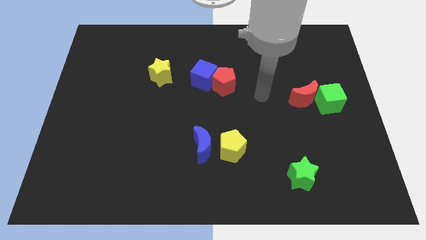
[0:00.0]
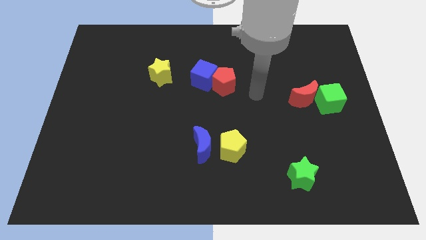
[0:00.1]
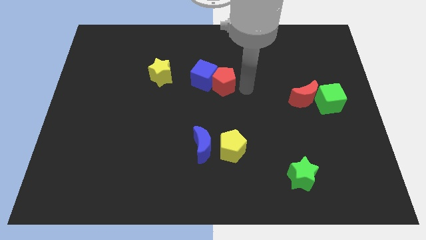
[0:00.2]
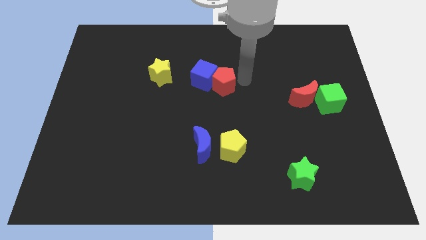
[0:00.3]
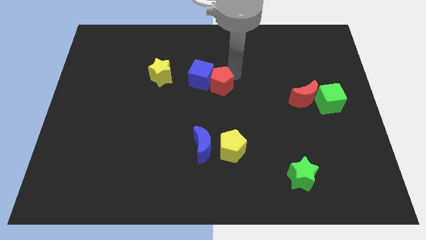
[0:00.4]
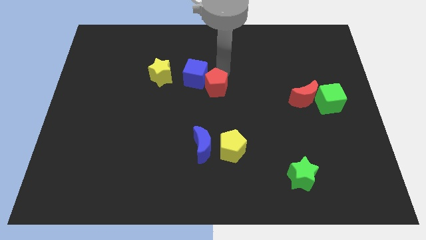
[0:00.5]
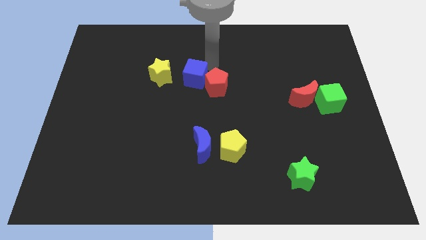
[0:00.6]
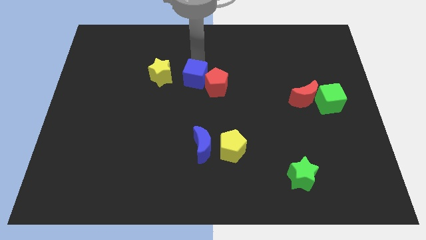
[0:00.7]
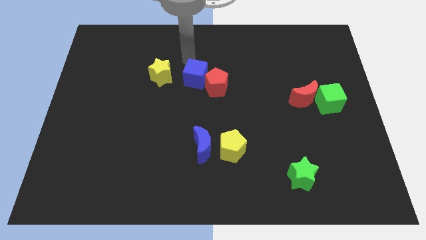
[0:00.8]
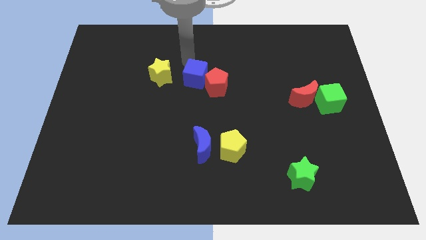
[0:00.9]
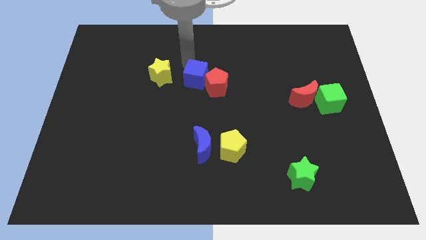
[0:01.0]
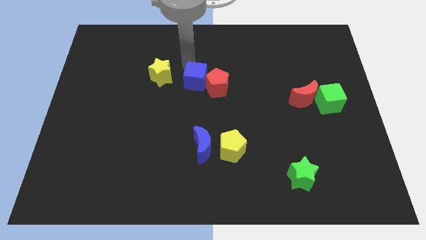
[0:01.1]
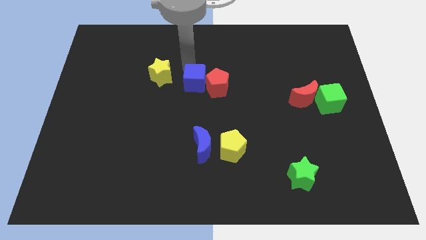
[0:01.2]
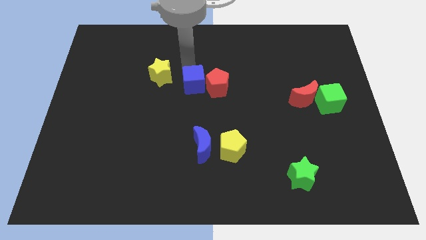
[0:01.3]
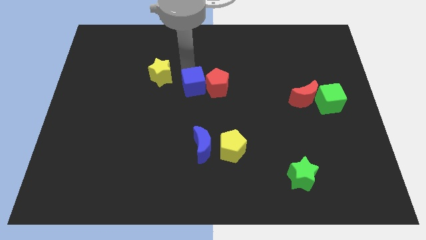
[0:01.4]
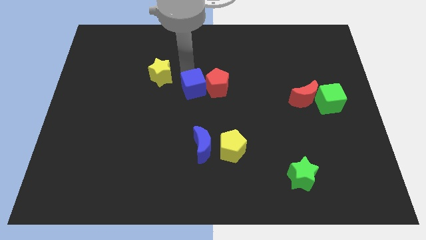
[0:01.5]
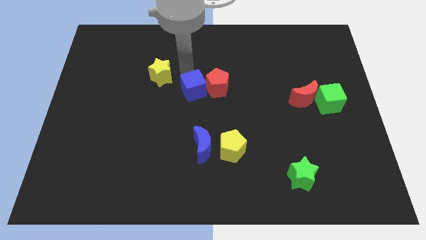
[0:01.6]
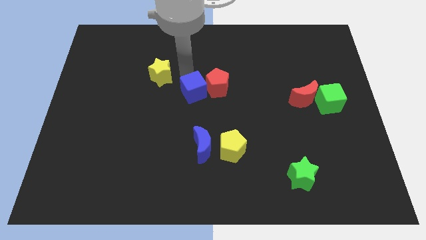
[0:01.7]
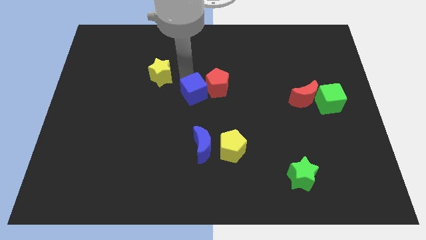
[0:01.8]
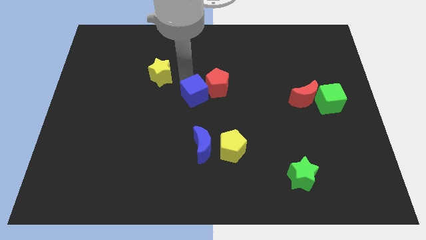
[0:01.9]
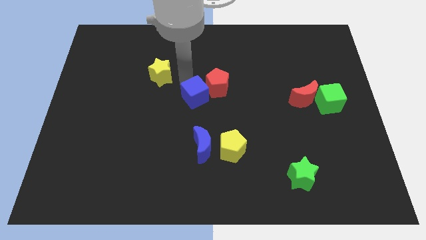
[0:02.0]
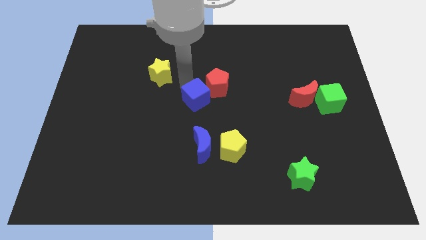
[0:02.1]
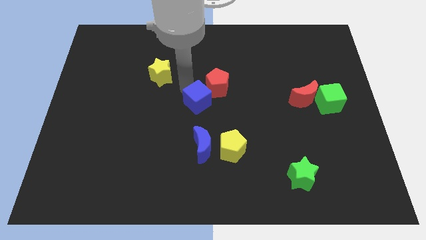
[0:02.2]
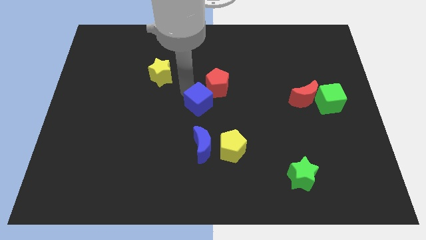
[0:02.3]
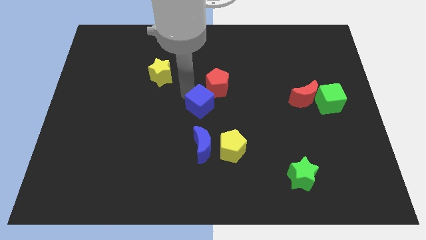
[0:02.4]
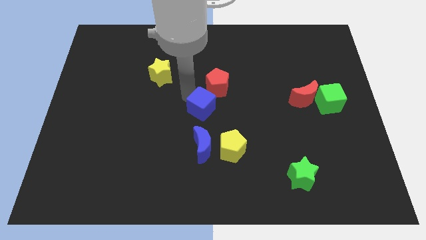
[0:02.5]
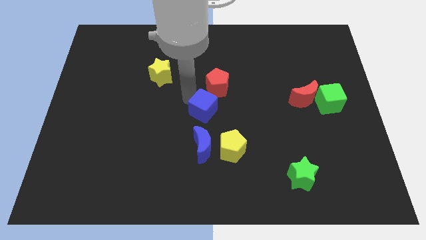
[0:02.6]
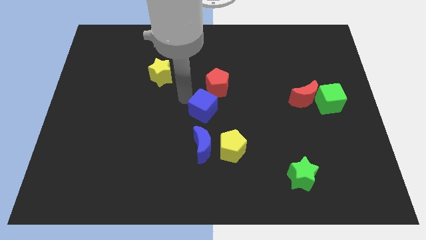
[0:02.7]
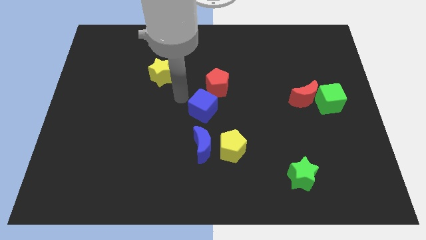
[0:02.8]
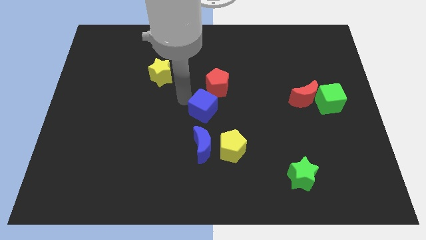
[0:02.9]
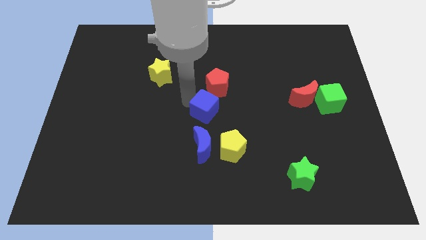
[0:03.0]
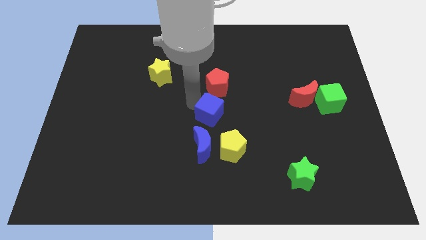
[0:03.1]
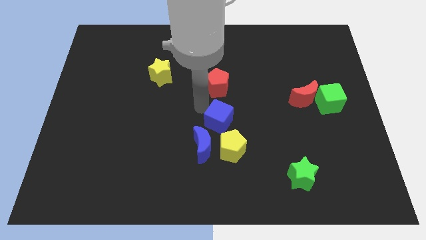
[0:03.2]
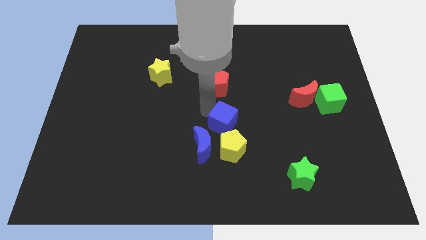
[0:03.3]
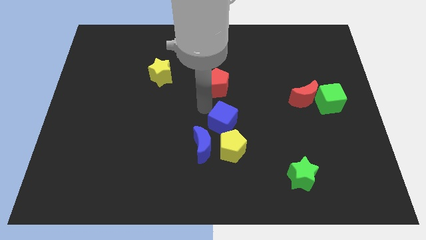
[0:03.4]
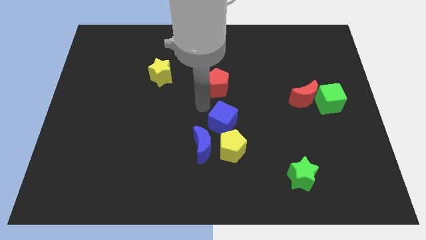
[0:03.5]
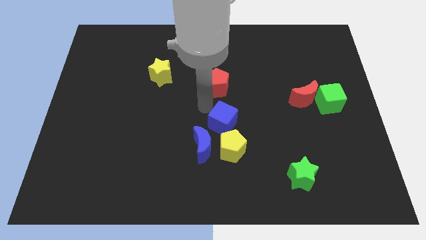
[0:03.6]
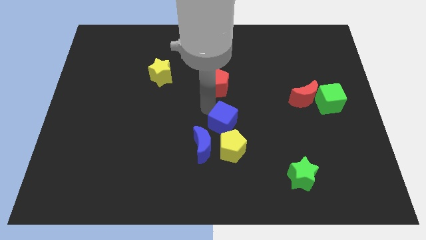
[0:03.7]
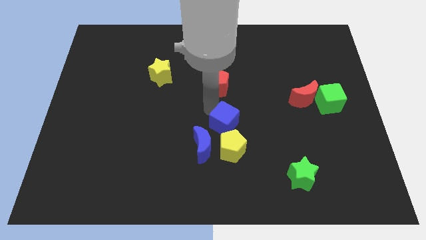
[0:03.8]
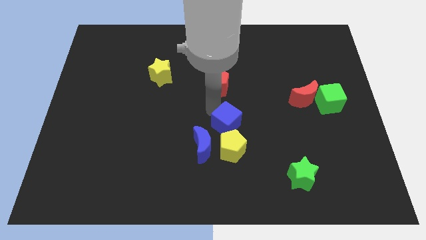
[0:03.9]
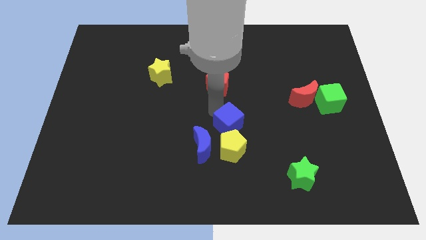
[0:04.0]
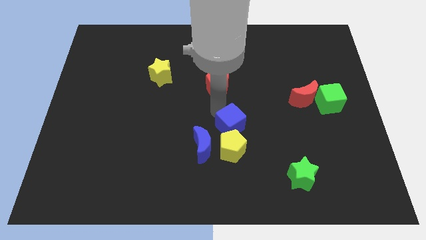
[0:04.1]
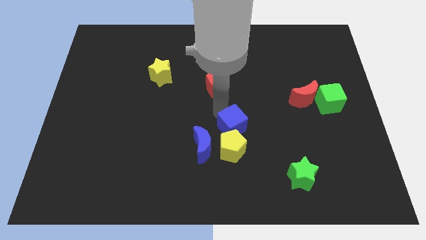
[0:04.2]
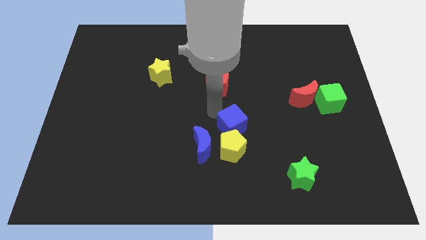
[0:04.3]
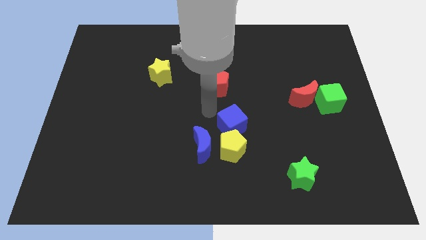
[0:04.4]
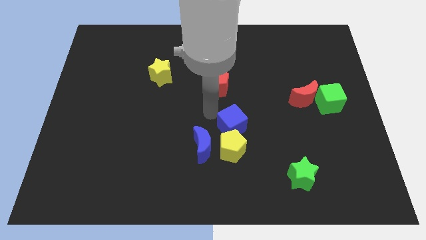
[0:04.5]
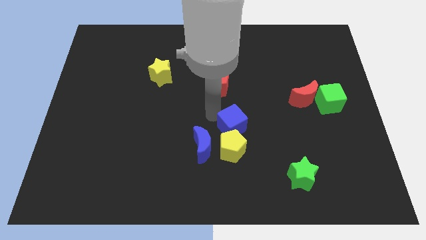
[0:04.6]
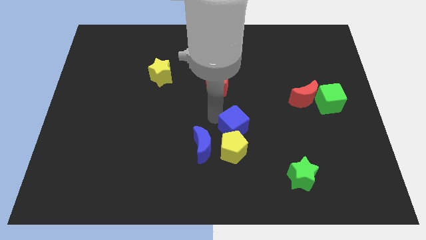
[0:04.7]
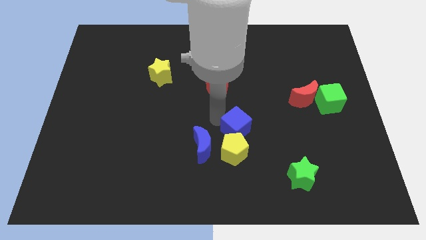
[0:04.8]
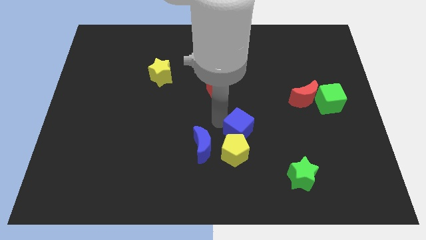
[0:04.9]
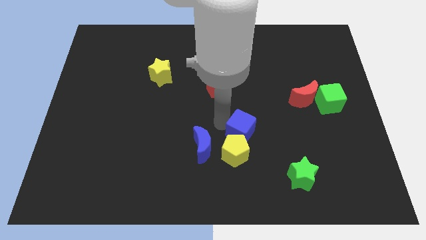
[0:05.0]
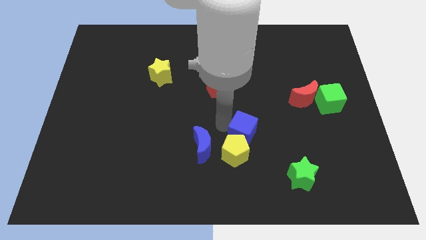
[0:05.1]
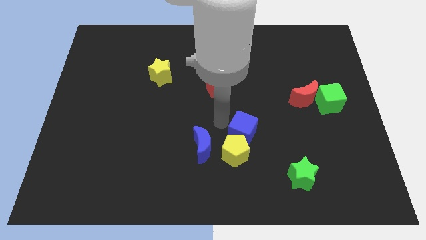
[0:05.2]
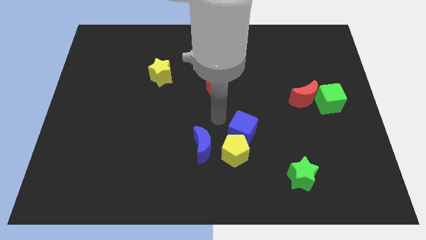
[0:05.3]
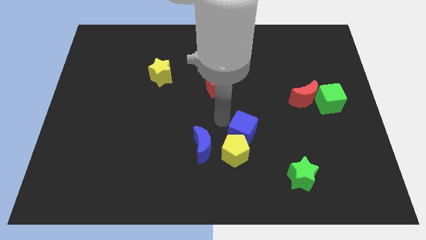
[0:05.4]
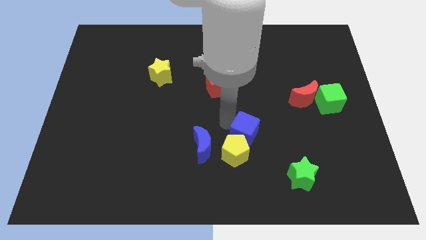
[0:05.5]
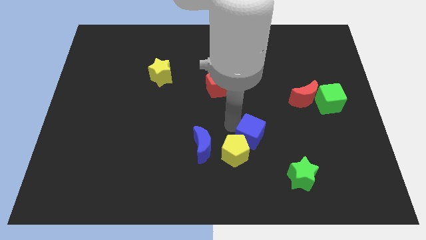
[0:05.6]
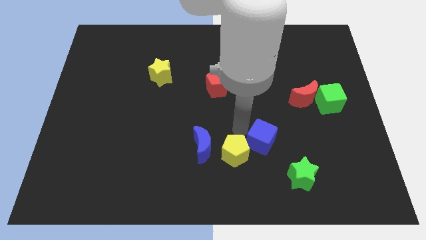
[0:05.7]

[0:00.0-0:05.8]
slide the blue cube down and to the right

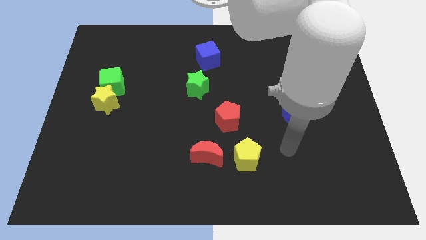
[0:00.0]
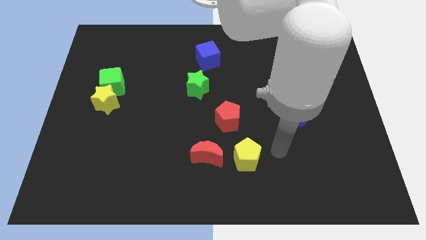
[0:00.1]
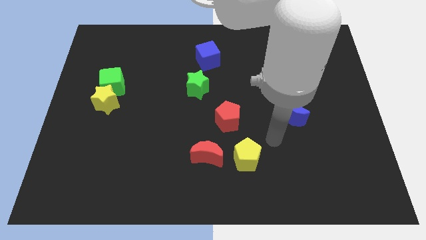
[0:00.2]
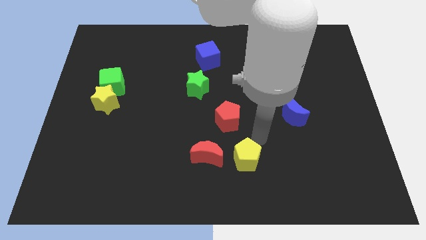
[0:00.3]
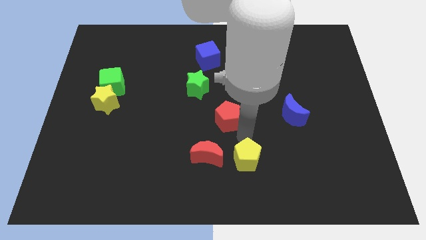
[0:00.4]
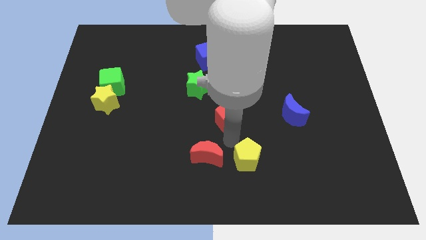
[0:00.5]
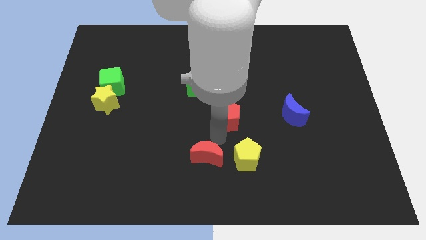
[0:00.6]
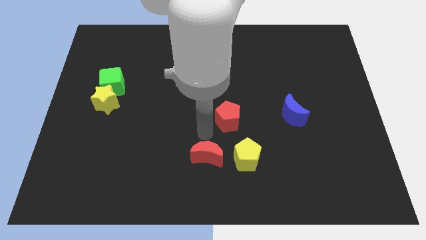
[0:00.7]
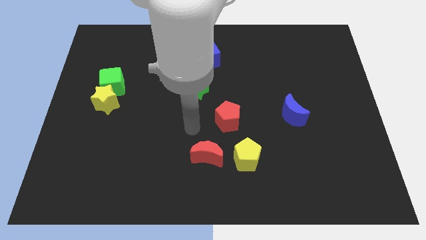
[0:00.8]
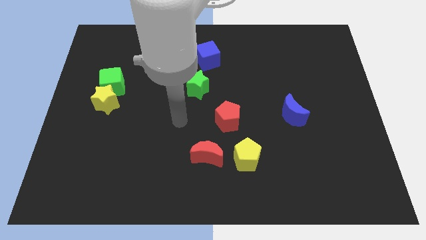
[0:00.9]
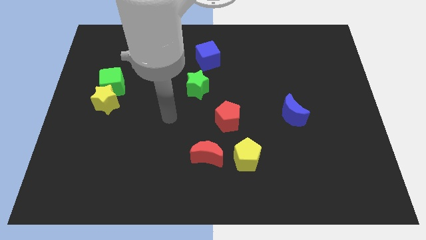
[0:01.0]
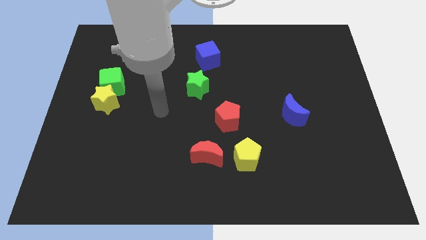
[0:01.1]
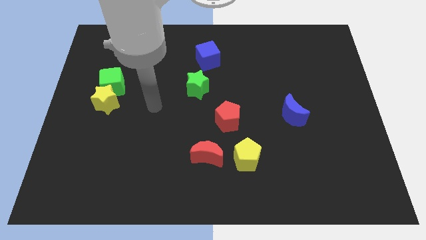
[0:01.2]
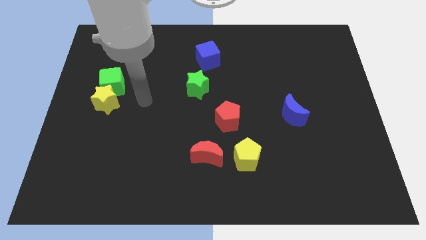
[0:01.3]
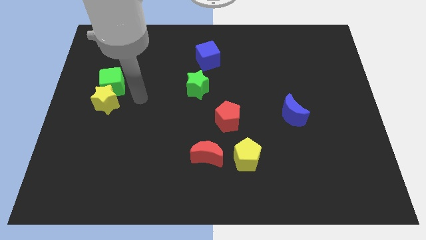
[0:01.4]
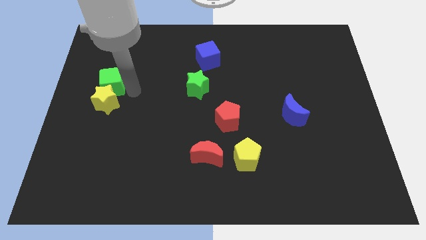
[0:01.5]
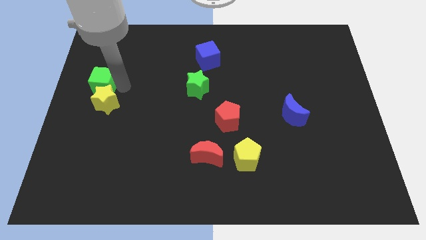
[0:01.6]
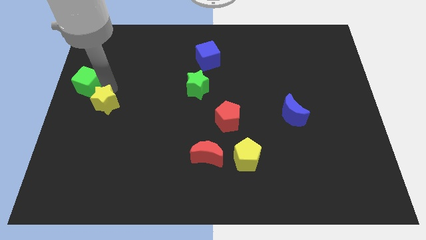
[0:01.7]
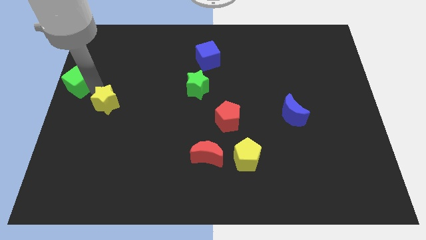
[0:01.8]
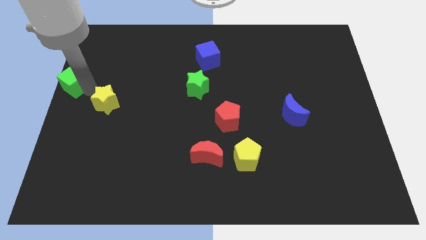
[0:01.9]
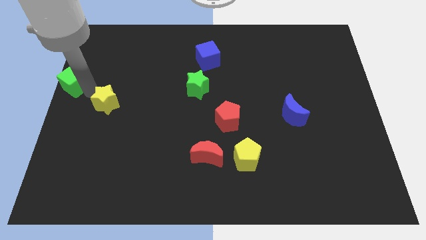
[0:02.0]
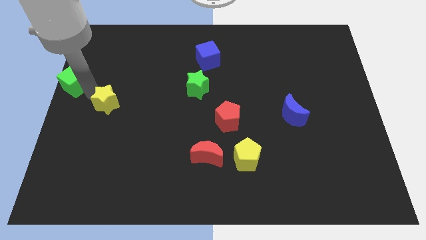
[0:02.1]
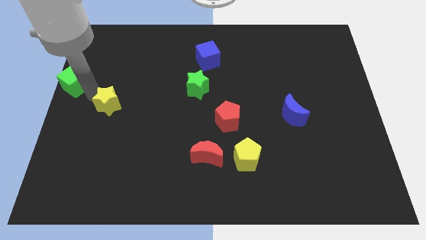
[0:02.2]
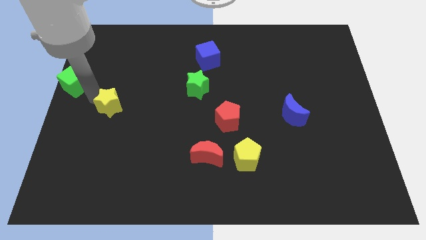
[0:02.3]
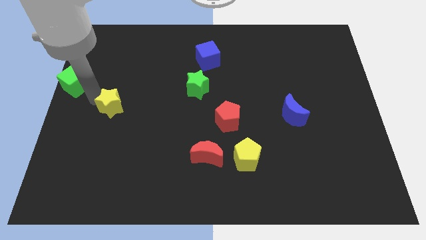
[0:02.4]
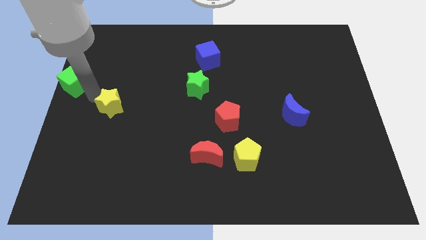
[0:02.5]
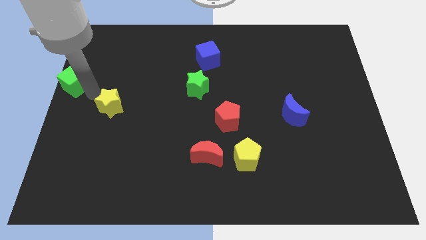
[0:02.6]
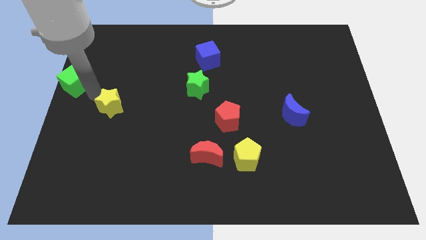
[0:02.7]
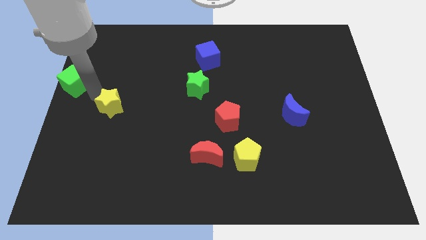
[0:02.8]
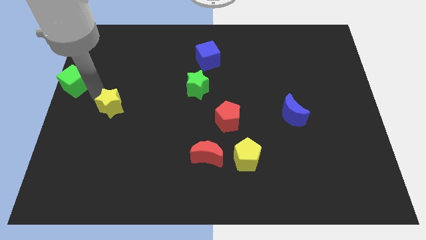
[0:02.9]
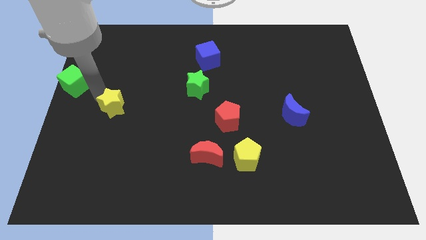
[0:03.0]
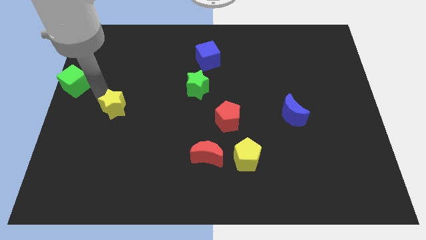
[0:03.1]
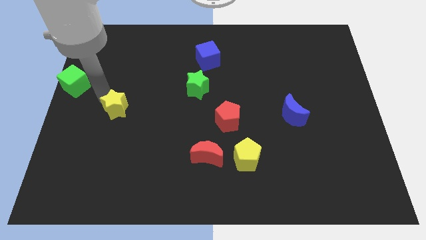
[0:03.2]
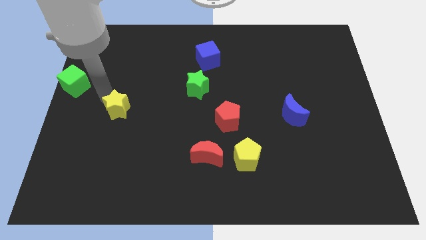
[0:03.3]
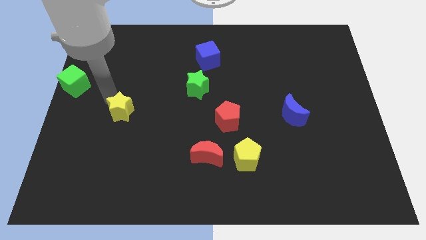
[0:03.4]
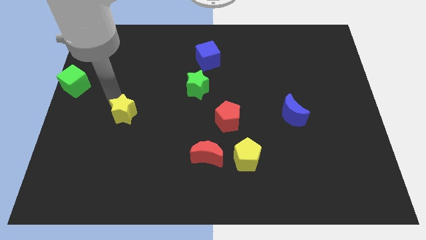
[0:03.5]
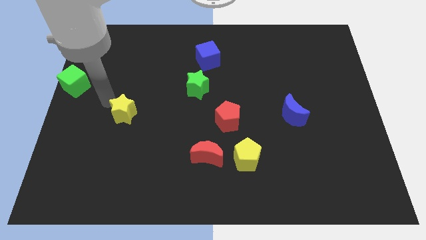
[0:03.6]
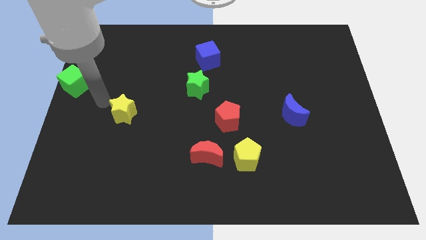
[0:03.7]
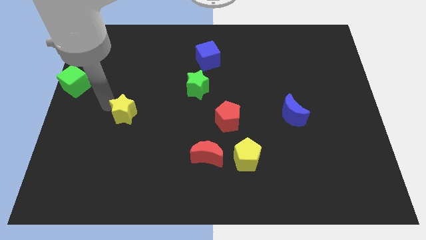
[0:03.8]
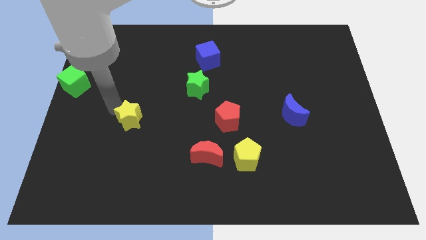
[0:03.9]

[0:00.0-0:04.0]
slide the yellow star a little bit diagonally downwards and to the right
